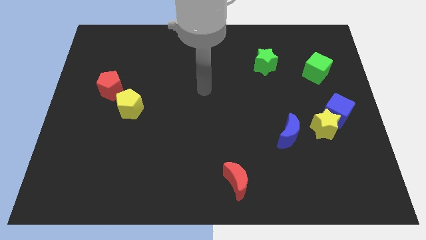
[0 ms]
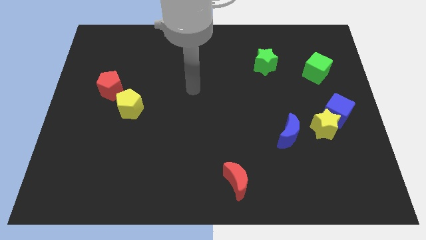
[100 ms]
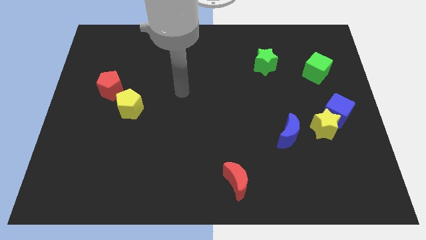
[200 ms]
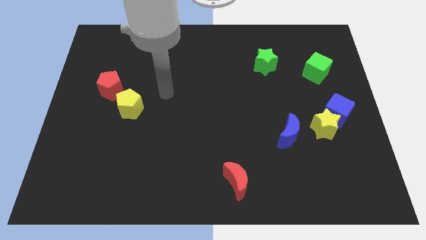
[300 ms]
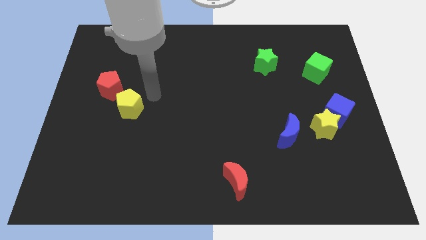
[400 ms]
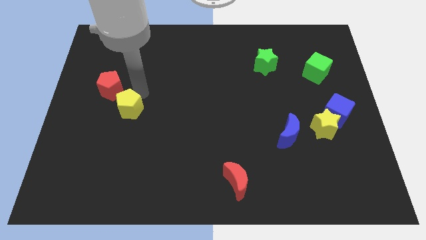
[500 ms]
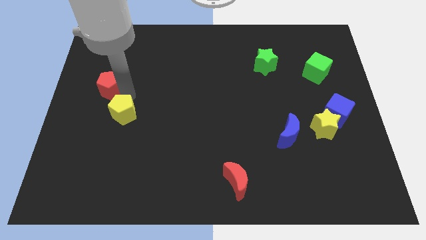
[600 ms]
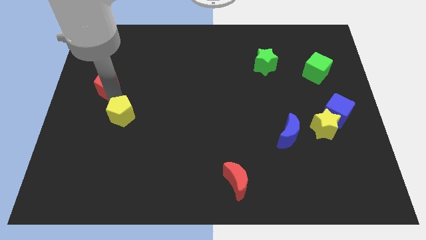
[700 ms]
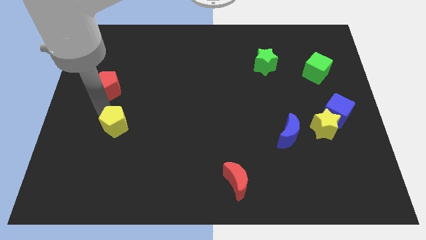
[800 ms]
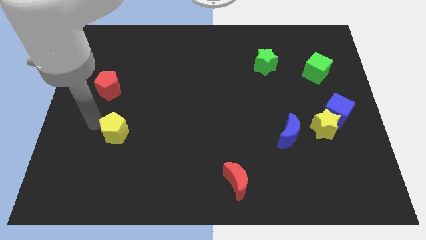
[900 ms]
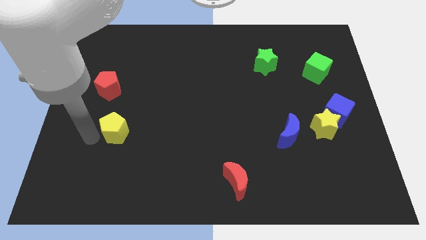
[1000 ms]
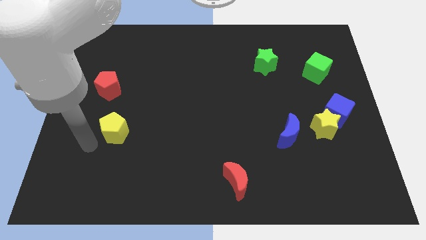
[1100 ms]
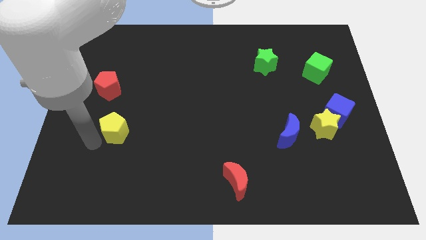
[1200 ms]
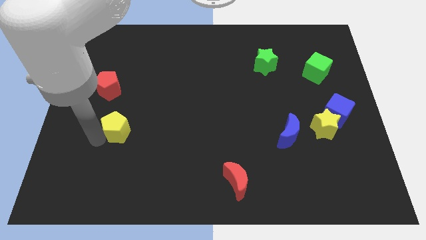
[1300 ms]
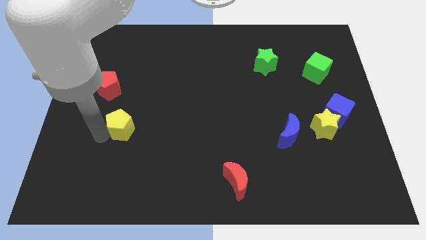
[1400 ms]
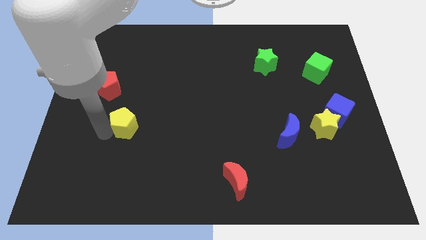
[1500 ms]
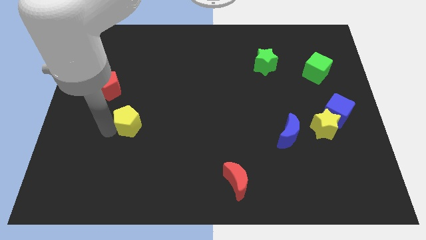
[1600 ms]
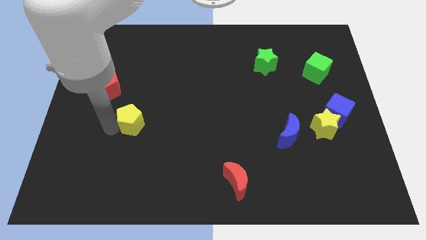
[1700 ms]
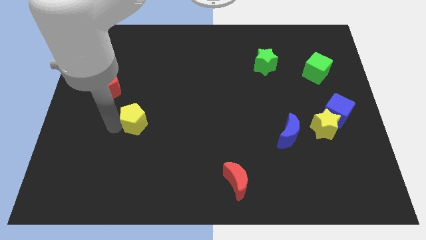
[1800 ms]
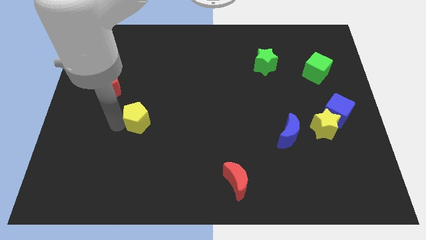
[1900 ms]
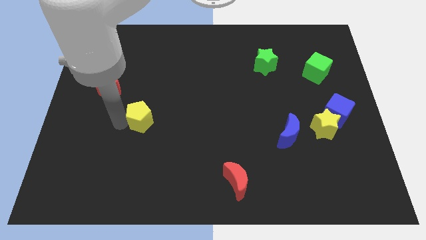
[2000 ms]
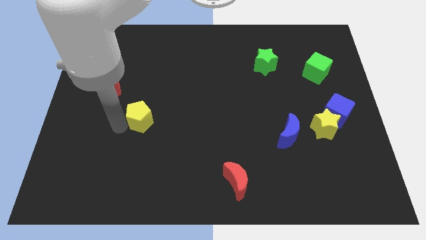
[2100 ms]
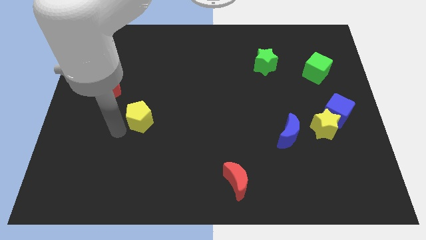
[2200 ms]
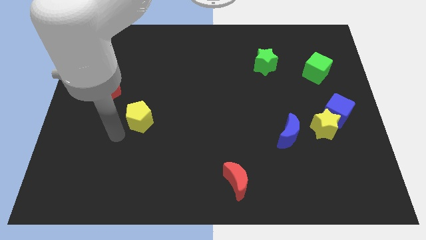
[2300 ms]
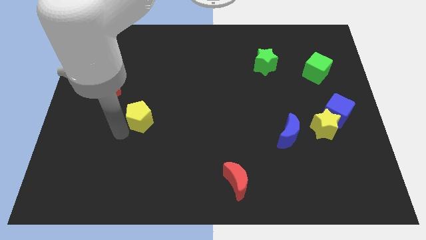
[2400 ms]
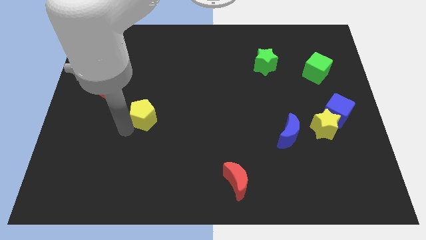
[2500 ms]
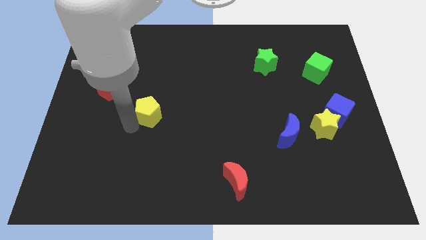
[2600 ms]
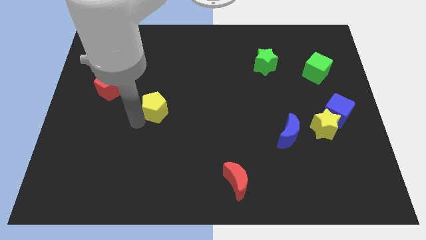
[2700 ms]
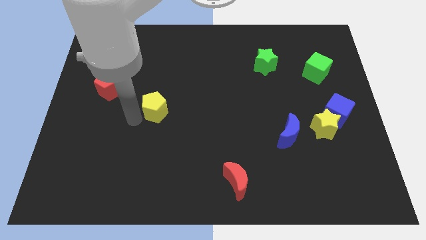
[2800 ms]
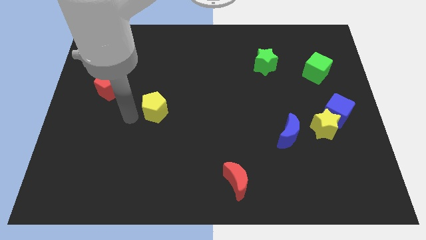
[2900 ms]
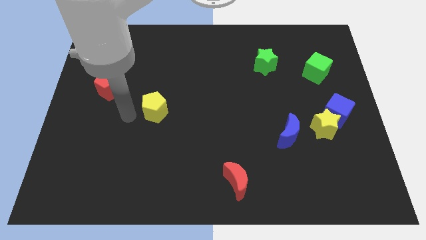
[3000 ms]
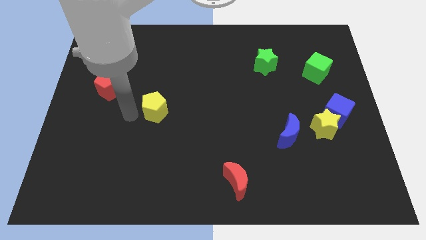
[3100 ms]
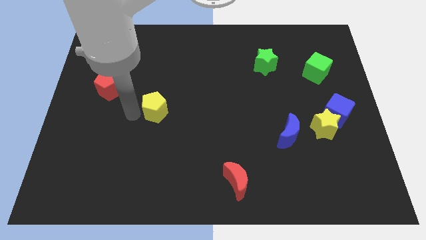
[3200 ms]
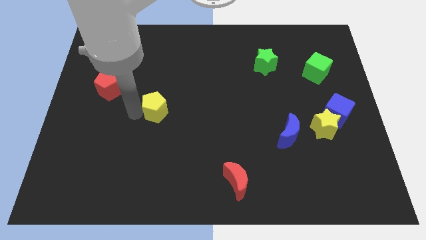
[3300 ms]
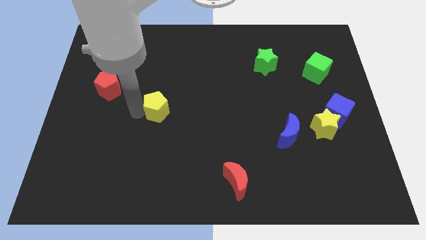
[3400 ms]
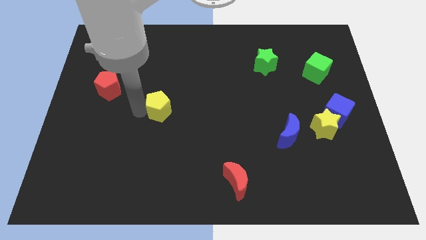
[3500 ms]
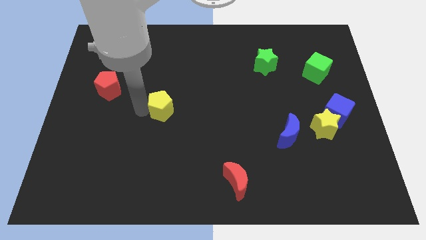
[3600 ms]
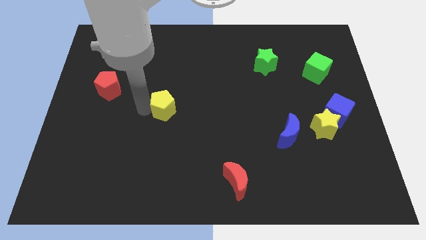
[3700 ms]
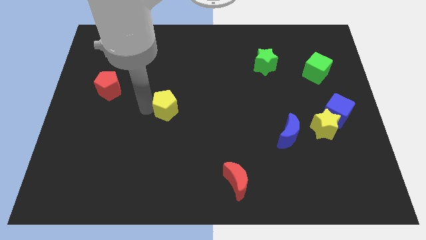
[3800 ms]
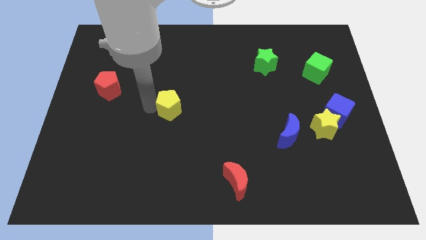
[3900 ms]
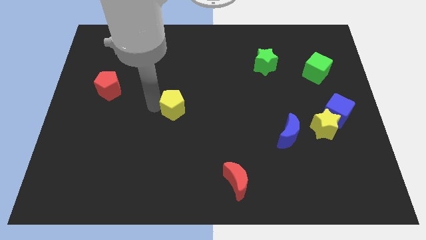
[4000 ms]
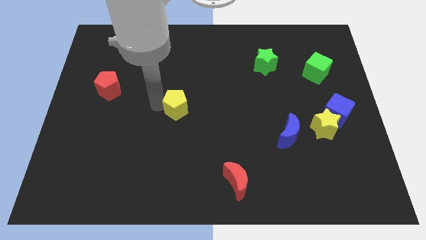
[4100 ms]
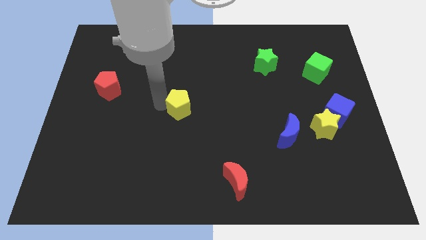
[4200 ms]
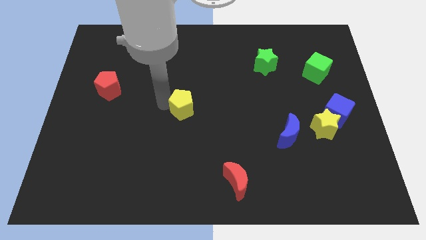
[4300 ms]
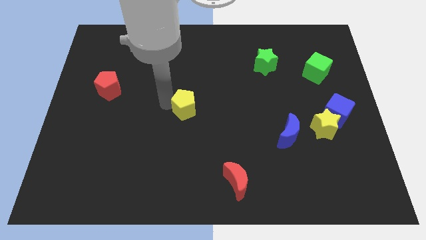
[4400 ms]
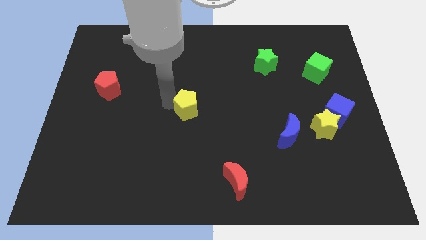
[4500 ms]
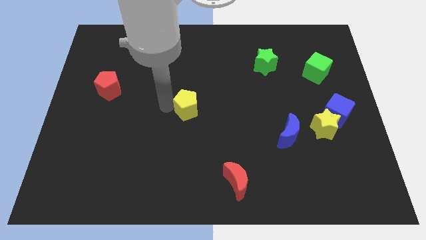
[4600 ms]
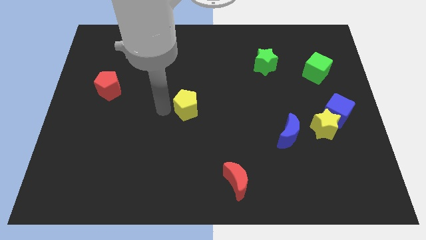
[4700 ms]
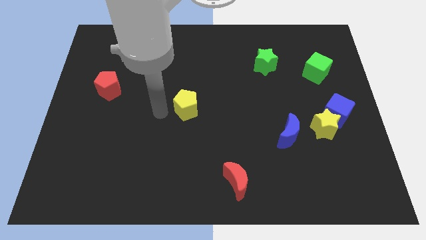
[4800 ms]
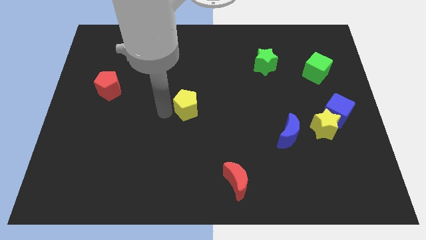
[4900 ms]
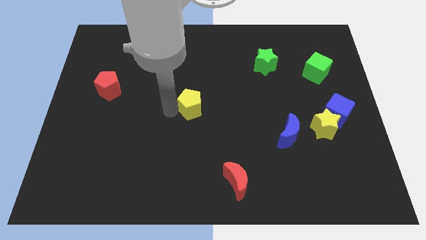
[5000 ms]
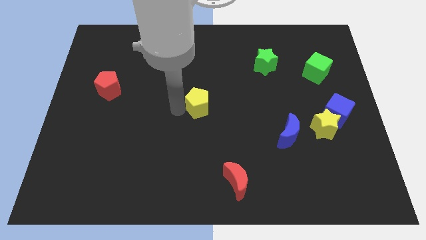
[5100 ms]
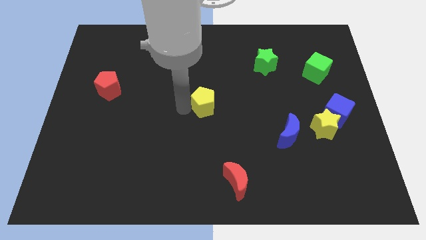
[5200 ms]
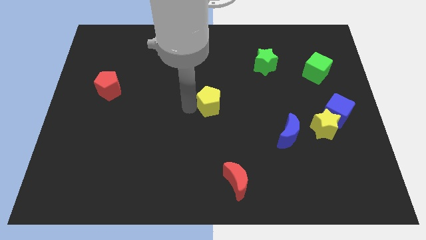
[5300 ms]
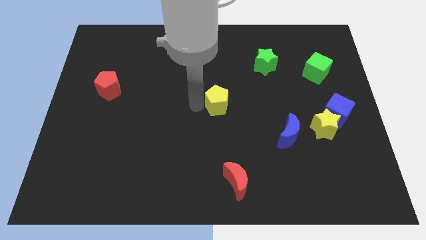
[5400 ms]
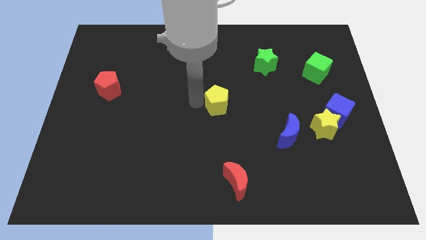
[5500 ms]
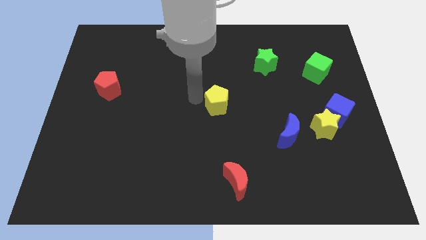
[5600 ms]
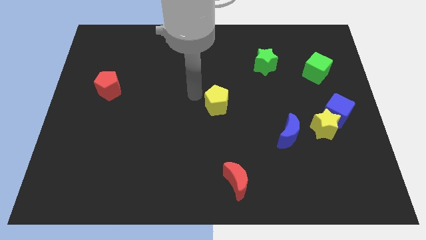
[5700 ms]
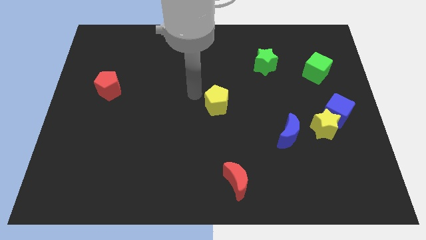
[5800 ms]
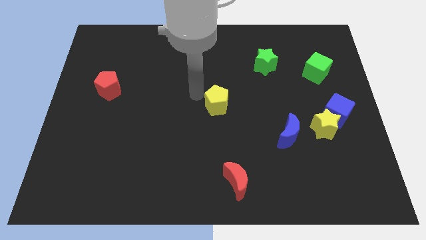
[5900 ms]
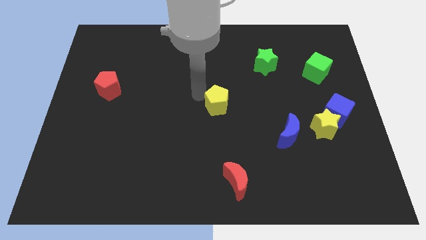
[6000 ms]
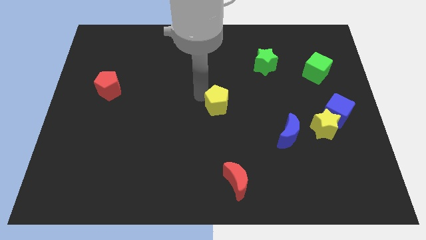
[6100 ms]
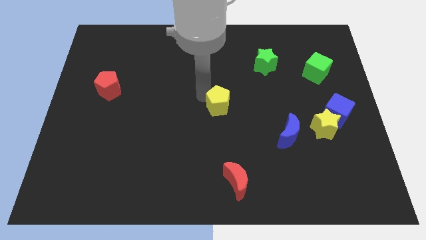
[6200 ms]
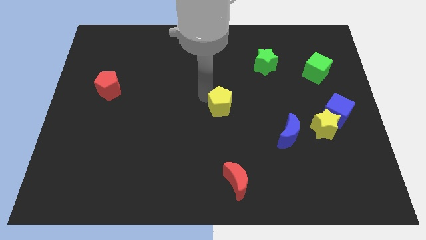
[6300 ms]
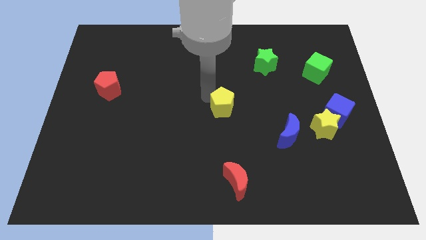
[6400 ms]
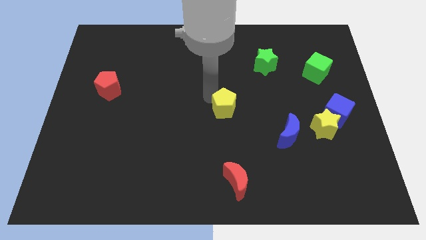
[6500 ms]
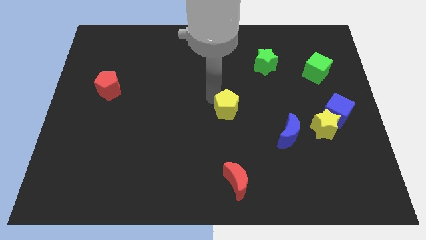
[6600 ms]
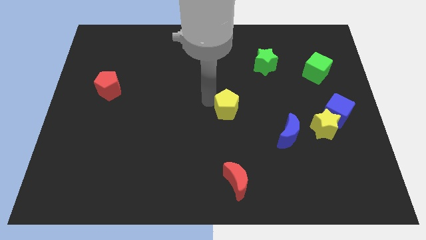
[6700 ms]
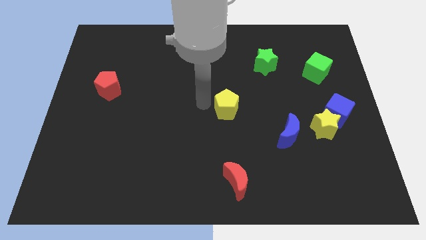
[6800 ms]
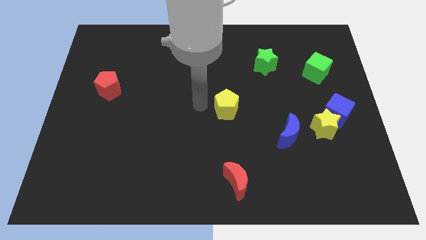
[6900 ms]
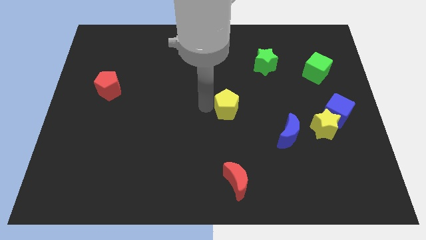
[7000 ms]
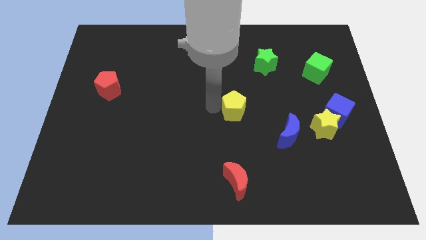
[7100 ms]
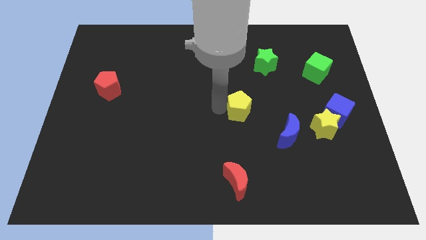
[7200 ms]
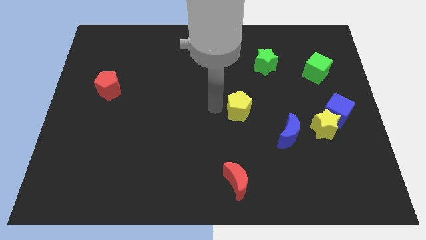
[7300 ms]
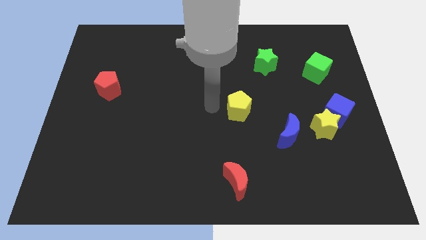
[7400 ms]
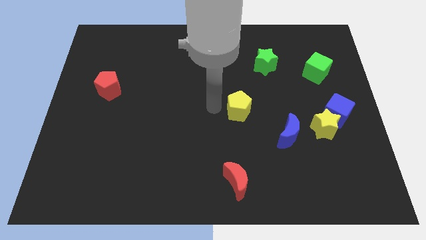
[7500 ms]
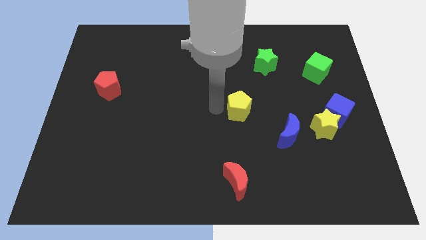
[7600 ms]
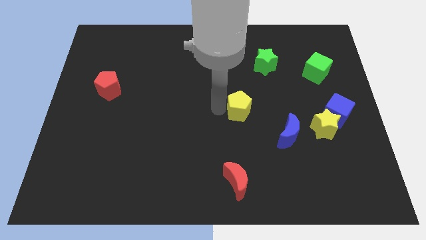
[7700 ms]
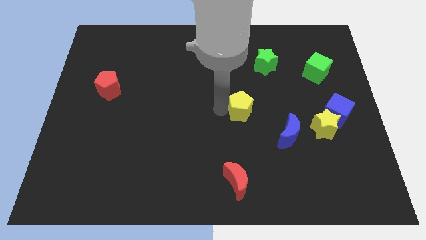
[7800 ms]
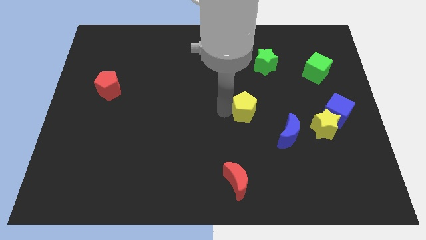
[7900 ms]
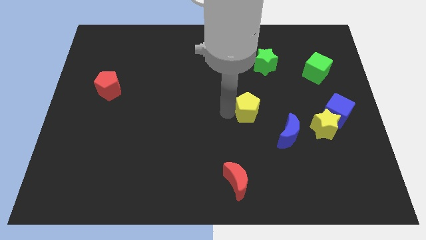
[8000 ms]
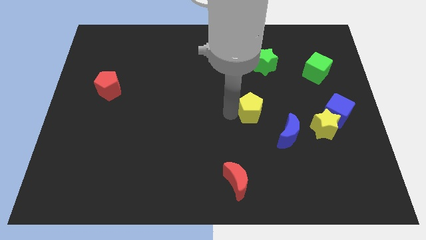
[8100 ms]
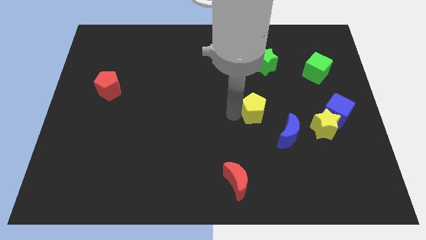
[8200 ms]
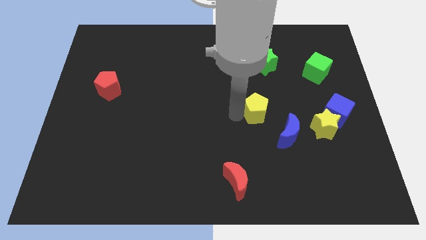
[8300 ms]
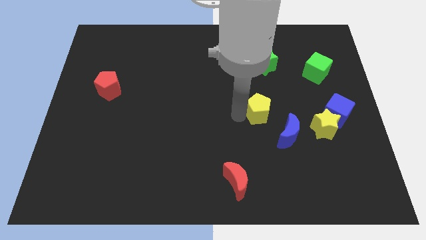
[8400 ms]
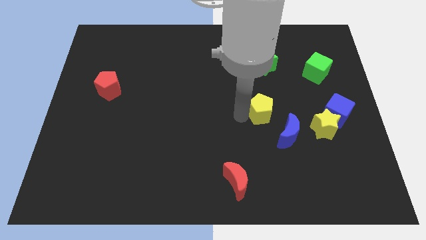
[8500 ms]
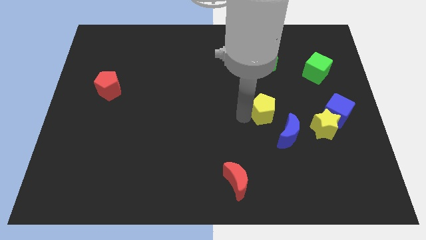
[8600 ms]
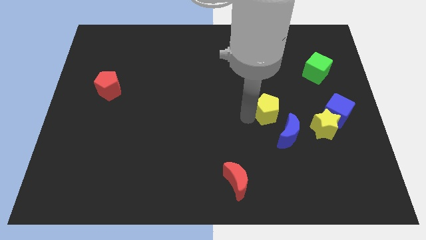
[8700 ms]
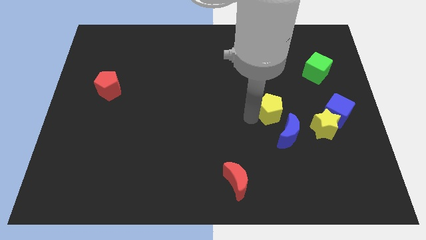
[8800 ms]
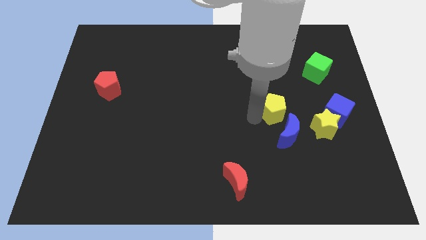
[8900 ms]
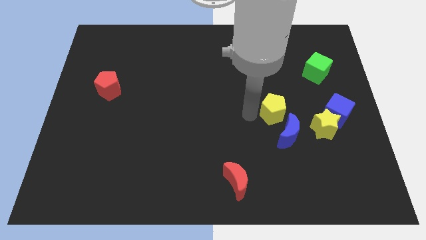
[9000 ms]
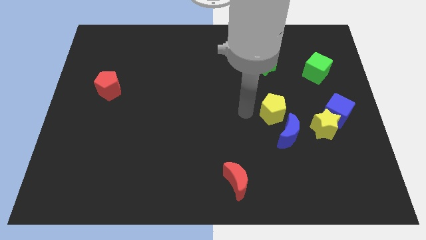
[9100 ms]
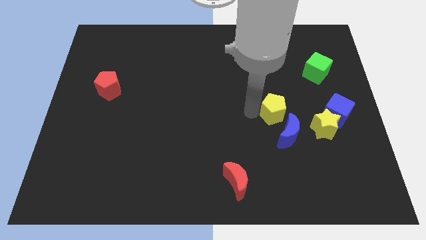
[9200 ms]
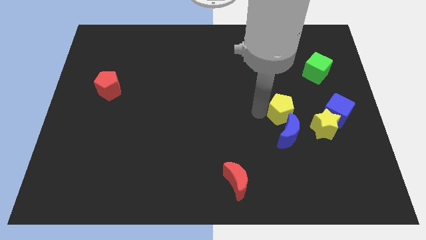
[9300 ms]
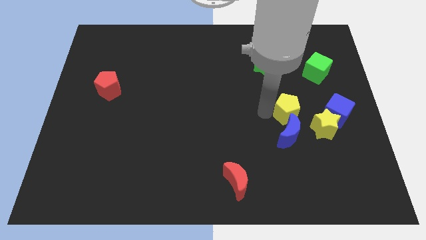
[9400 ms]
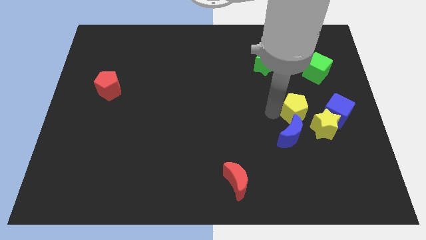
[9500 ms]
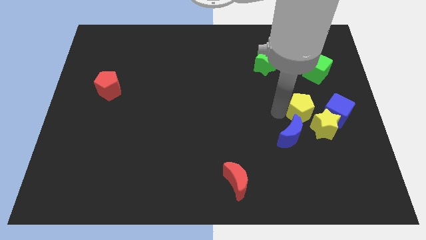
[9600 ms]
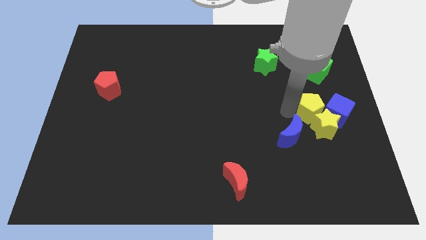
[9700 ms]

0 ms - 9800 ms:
slide the yellow pentagon next to the blue cube
